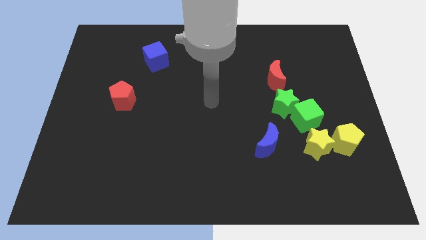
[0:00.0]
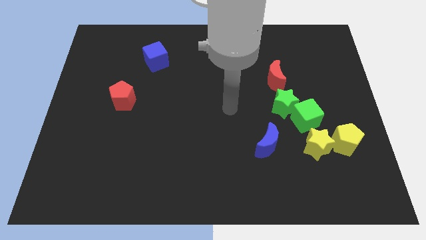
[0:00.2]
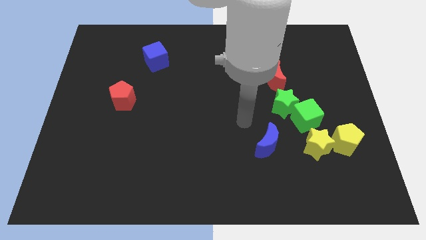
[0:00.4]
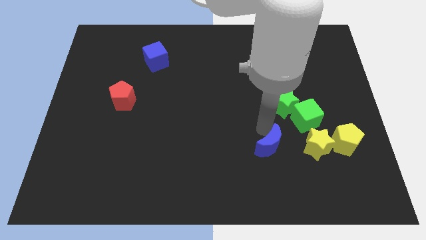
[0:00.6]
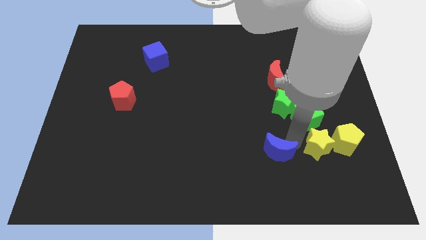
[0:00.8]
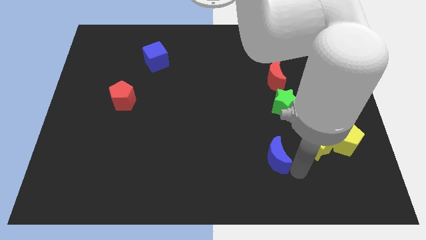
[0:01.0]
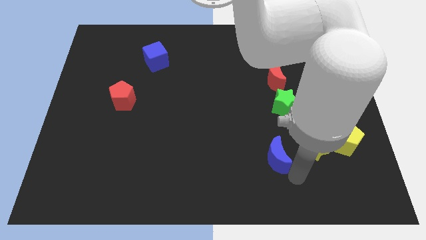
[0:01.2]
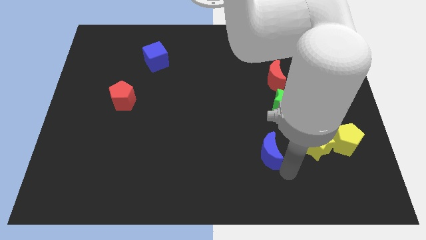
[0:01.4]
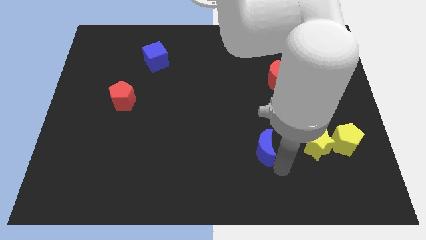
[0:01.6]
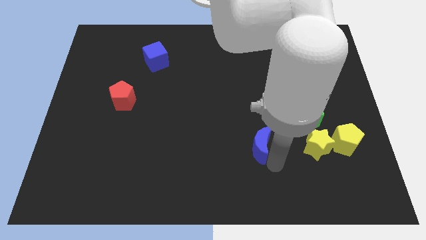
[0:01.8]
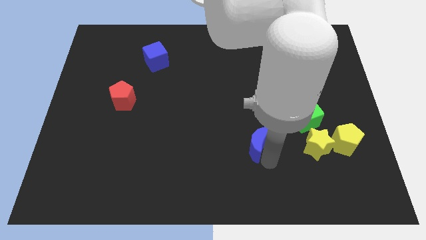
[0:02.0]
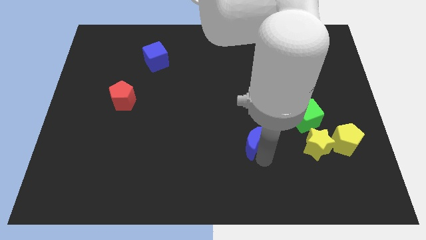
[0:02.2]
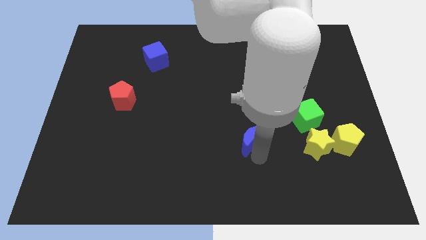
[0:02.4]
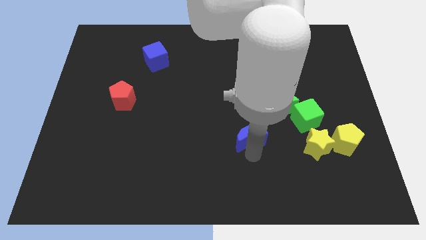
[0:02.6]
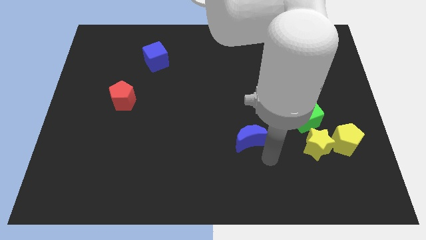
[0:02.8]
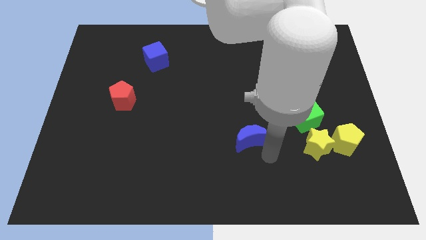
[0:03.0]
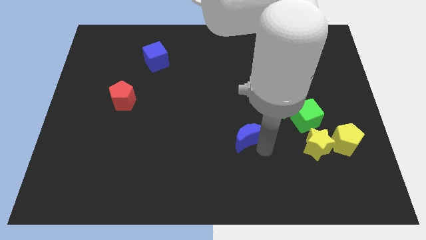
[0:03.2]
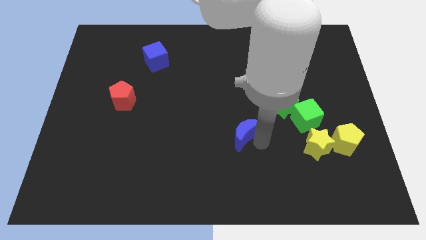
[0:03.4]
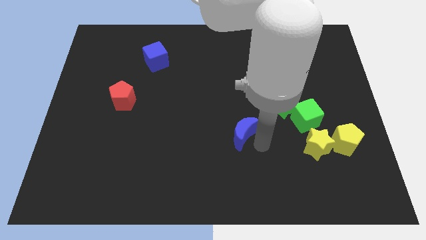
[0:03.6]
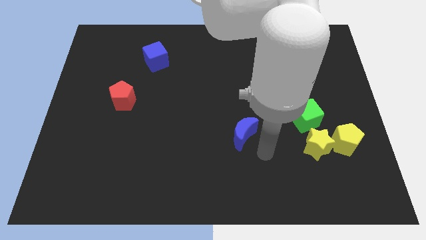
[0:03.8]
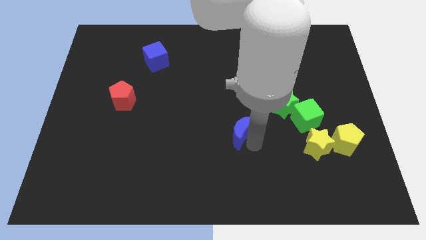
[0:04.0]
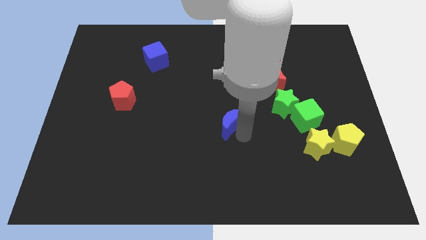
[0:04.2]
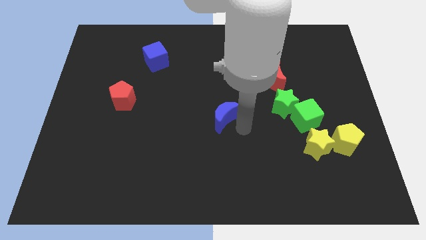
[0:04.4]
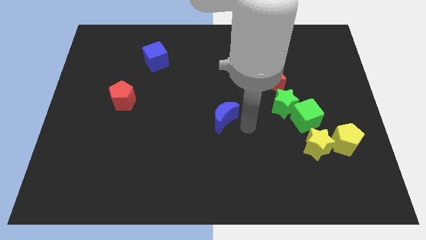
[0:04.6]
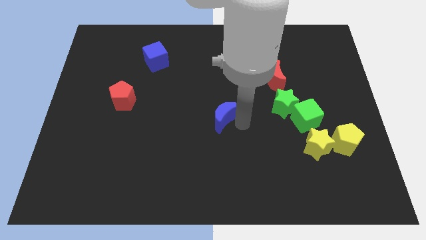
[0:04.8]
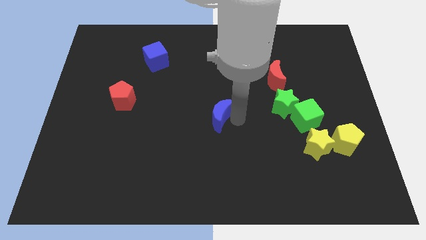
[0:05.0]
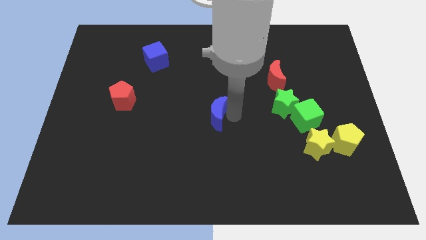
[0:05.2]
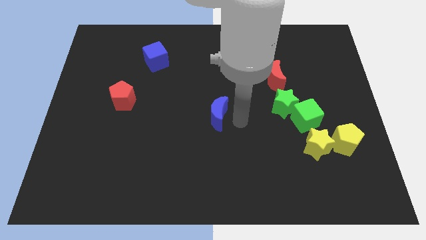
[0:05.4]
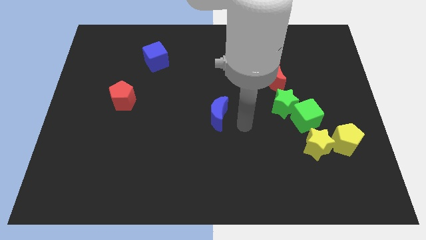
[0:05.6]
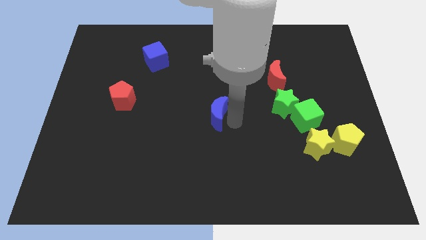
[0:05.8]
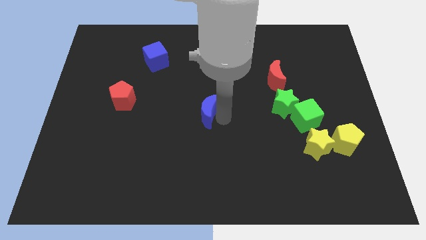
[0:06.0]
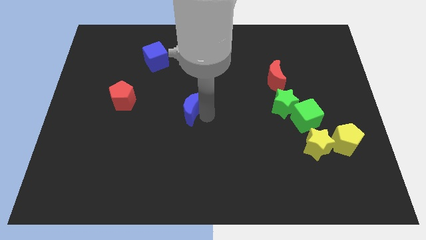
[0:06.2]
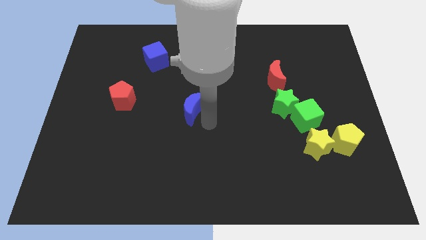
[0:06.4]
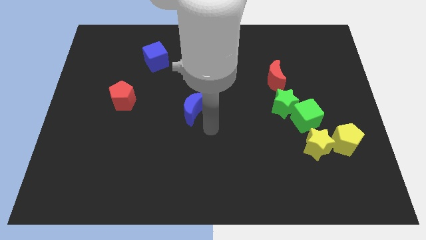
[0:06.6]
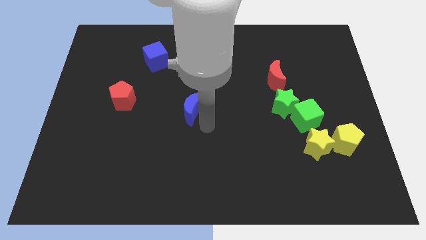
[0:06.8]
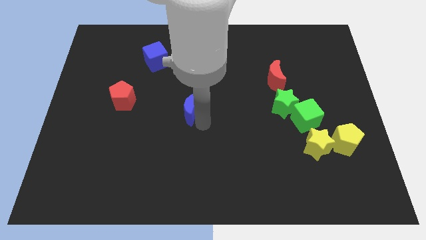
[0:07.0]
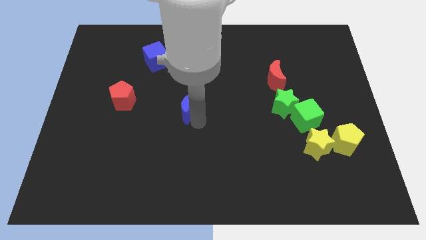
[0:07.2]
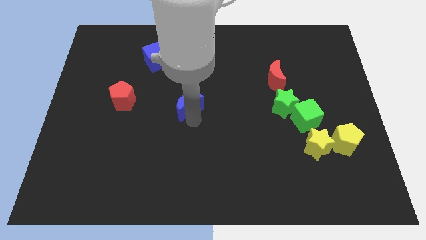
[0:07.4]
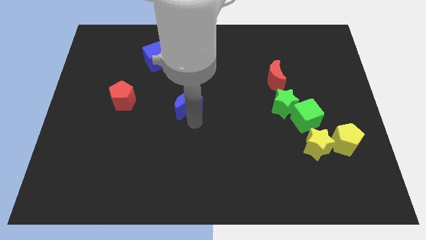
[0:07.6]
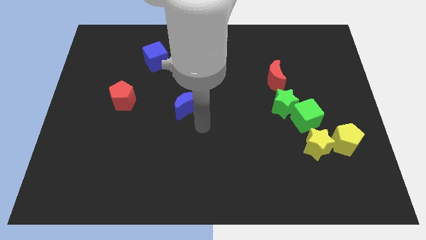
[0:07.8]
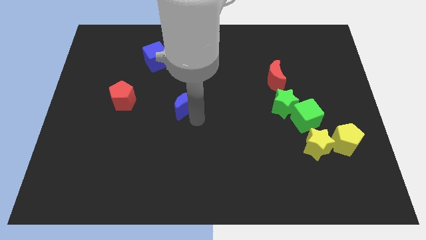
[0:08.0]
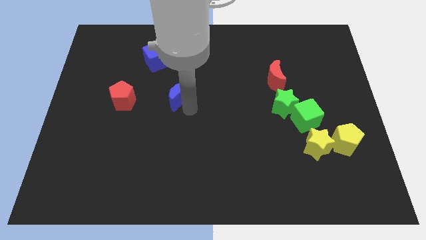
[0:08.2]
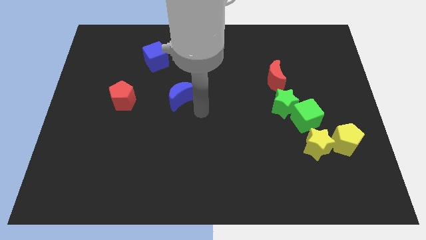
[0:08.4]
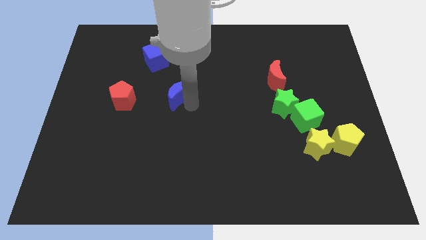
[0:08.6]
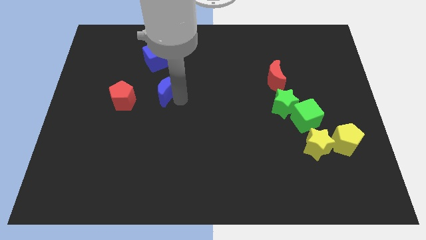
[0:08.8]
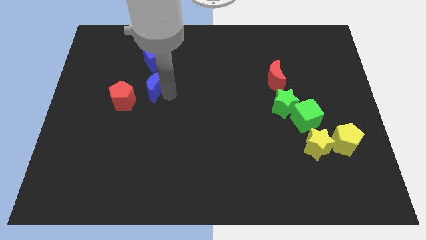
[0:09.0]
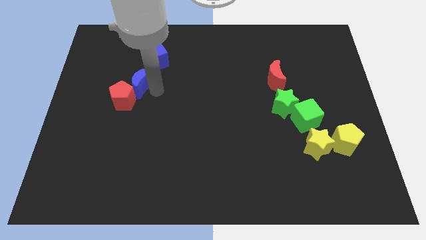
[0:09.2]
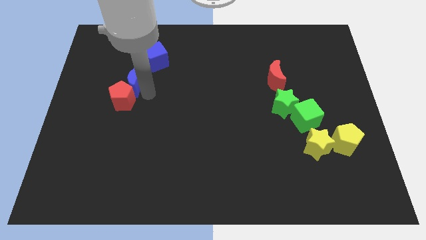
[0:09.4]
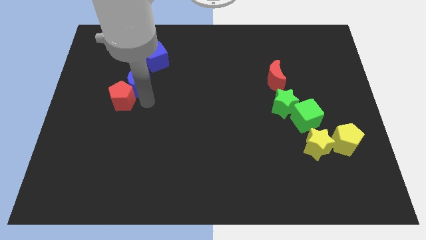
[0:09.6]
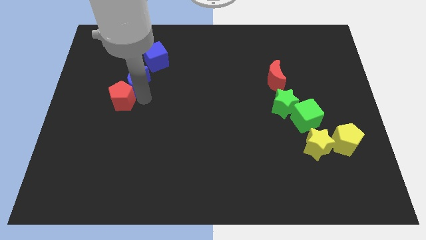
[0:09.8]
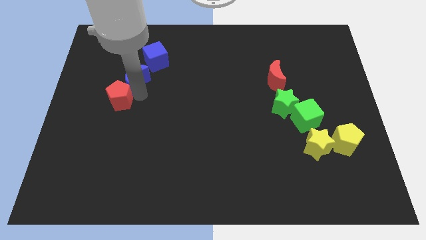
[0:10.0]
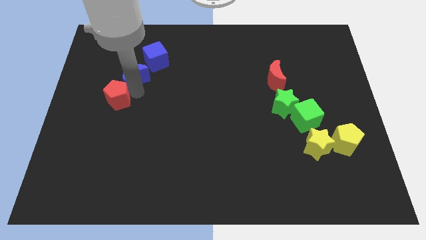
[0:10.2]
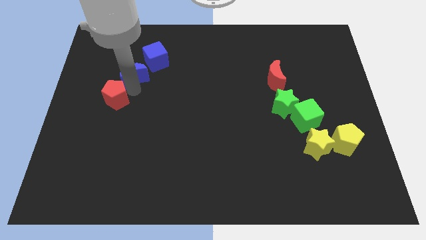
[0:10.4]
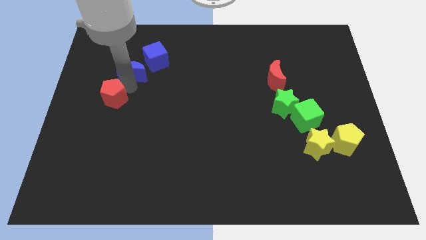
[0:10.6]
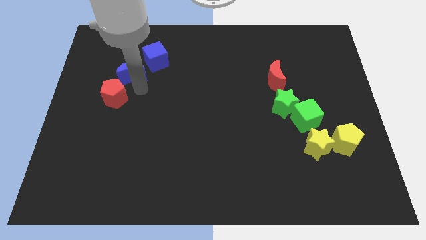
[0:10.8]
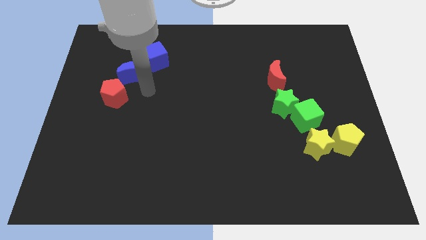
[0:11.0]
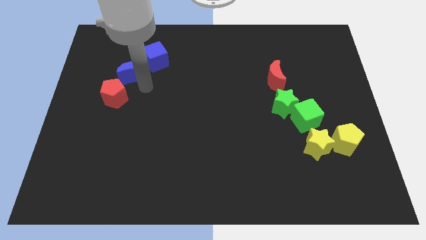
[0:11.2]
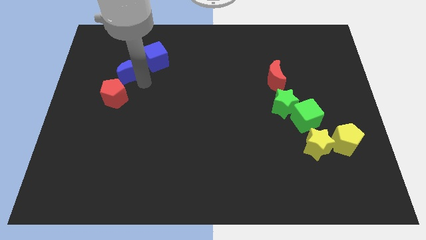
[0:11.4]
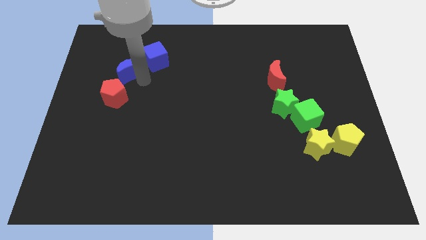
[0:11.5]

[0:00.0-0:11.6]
put the blue moon left of the blue cube

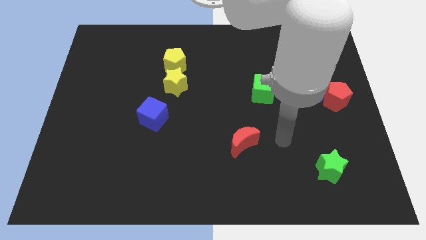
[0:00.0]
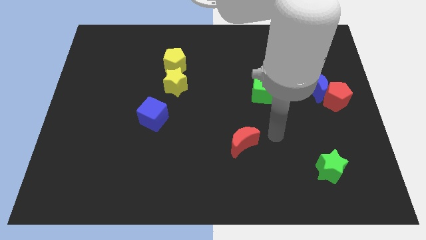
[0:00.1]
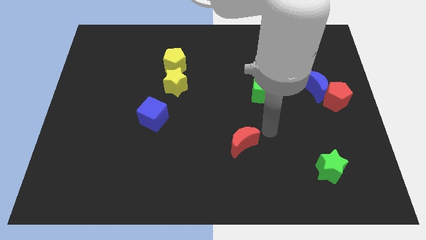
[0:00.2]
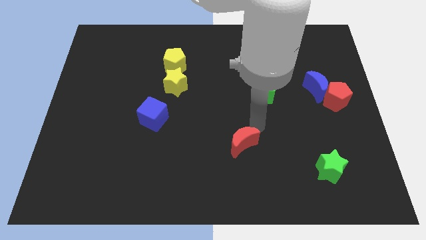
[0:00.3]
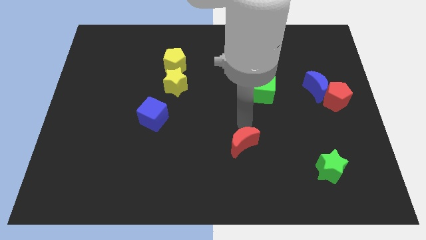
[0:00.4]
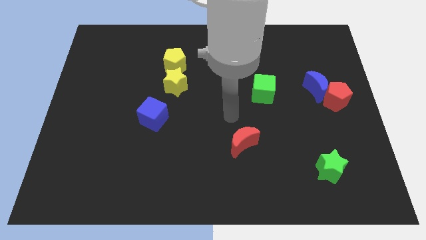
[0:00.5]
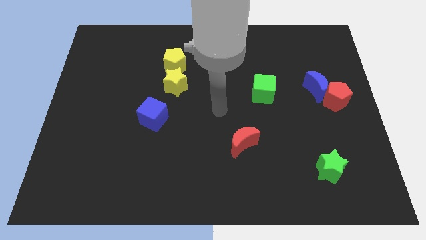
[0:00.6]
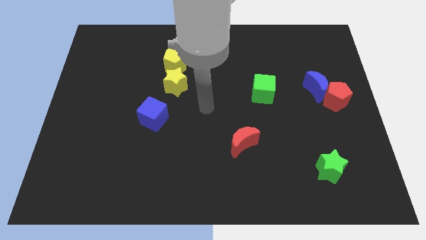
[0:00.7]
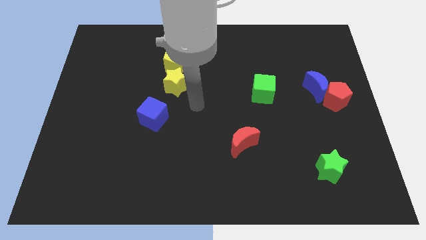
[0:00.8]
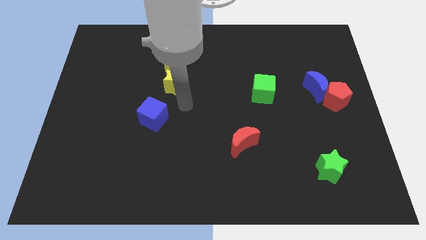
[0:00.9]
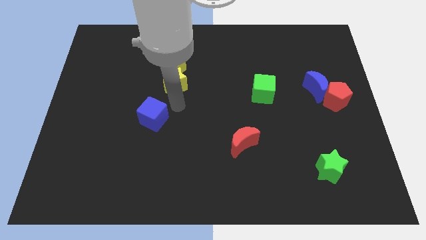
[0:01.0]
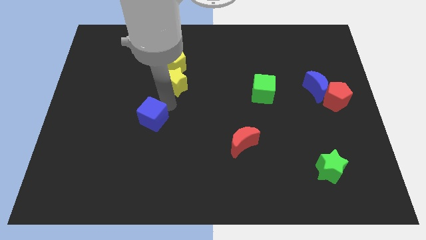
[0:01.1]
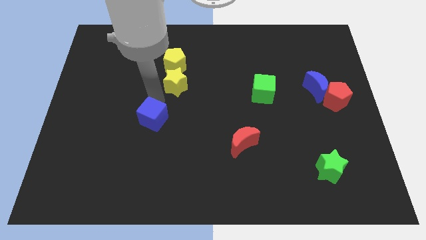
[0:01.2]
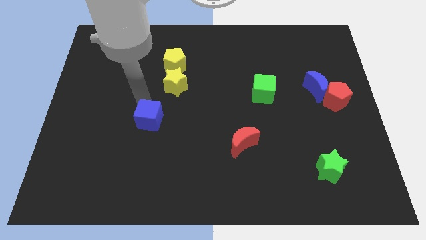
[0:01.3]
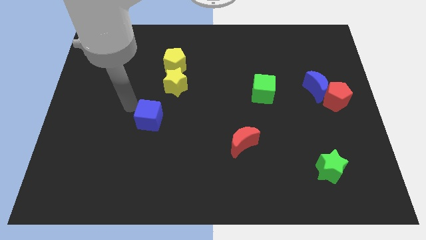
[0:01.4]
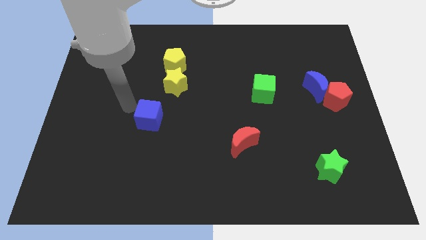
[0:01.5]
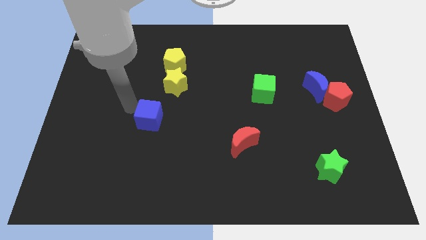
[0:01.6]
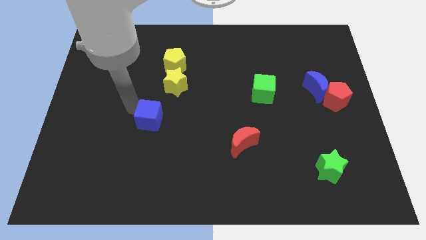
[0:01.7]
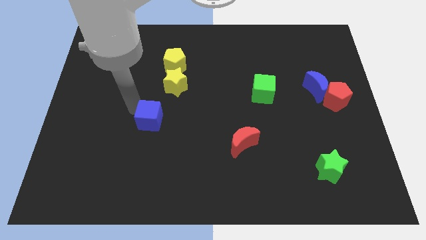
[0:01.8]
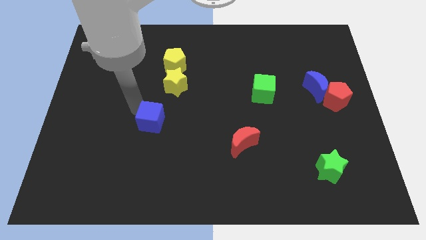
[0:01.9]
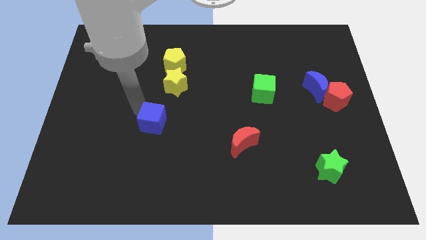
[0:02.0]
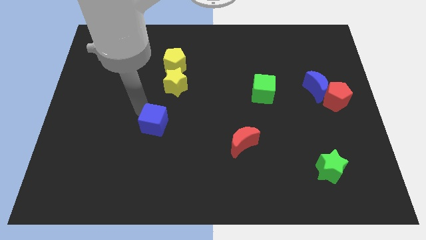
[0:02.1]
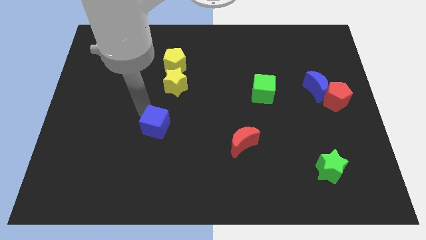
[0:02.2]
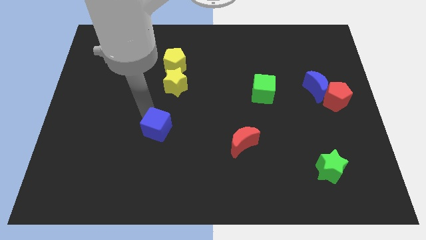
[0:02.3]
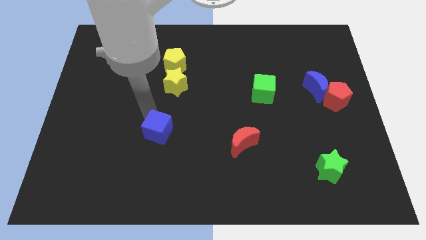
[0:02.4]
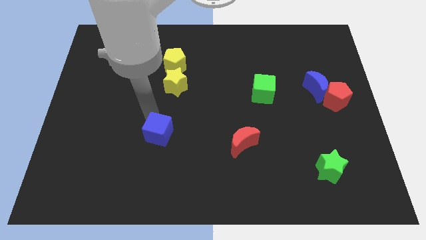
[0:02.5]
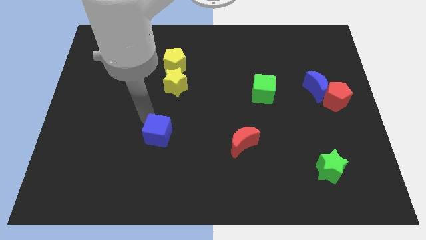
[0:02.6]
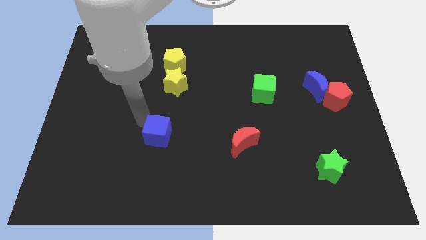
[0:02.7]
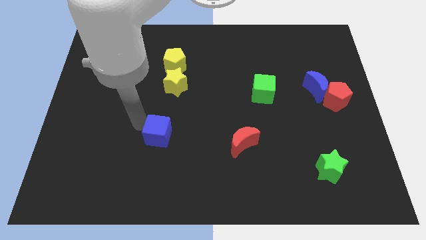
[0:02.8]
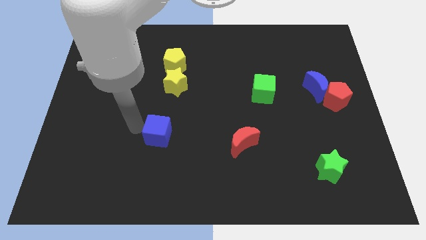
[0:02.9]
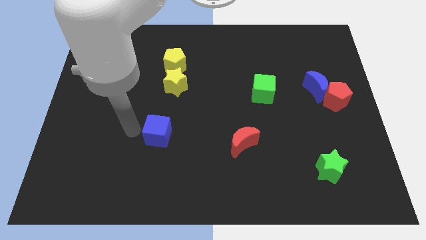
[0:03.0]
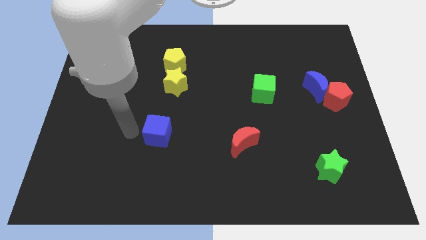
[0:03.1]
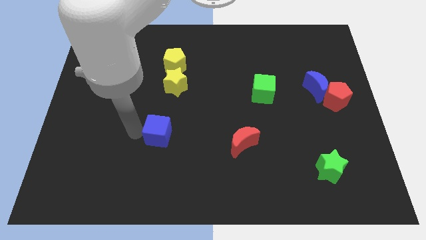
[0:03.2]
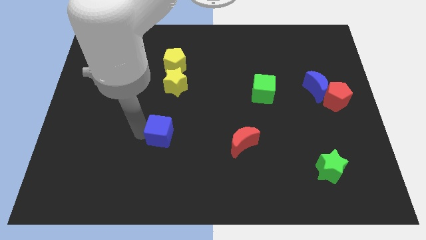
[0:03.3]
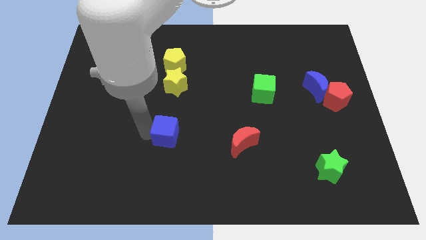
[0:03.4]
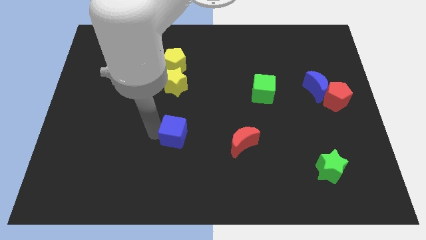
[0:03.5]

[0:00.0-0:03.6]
push the blue cube left of the red moon
